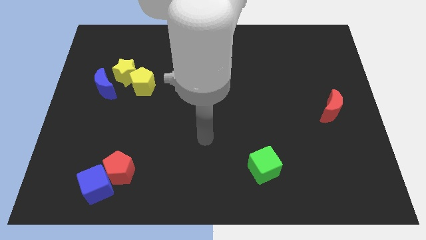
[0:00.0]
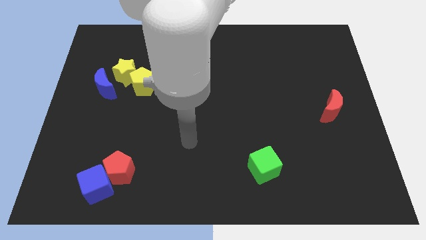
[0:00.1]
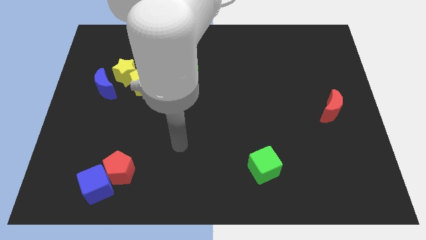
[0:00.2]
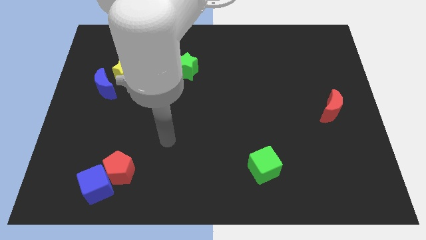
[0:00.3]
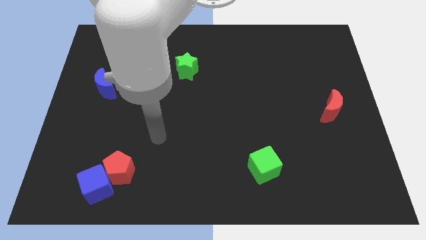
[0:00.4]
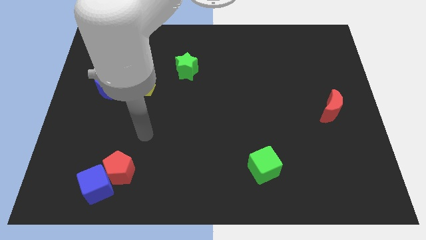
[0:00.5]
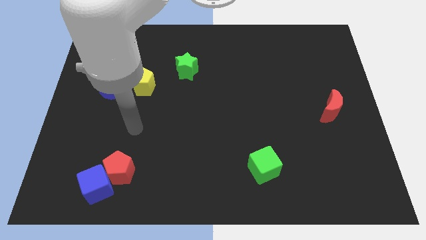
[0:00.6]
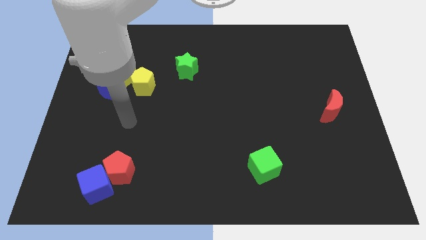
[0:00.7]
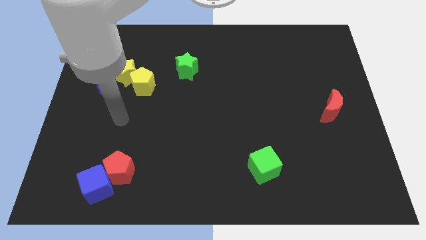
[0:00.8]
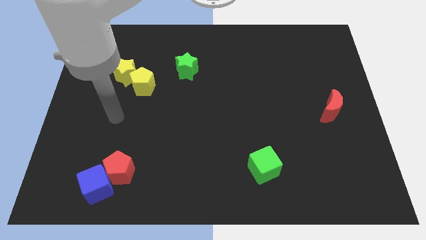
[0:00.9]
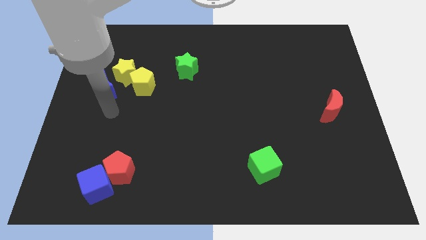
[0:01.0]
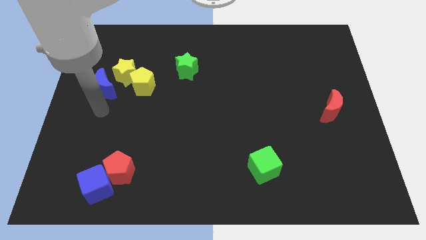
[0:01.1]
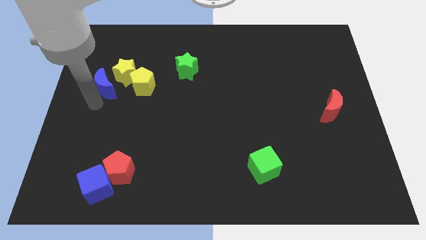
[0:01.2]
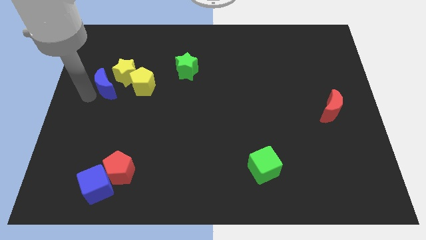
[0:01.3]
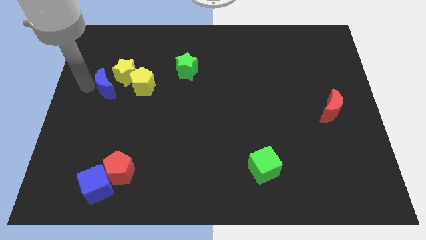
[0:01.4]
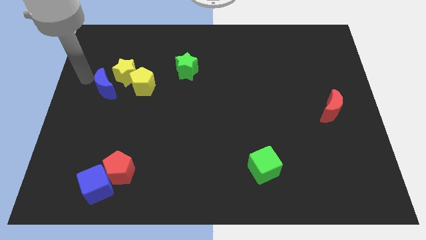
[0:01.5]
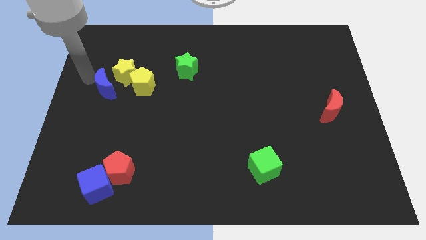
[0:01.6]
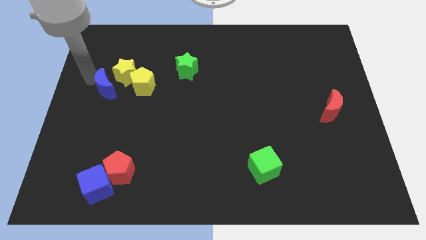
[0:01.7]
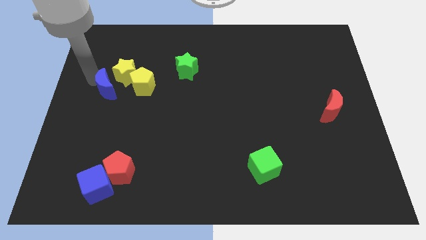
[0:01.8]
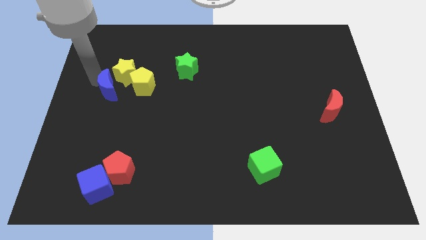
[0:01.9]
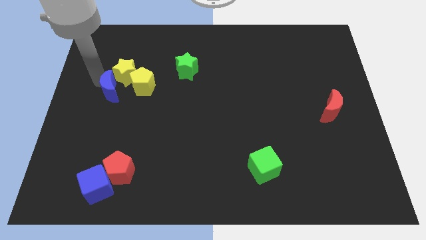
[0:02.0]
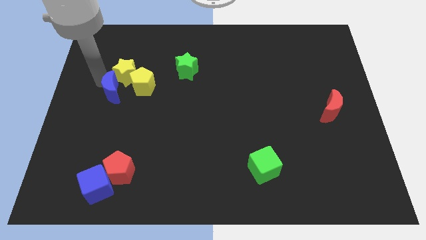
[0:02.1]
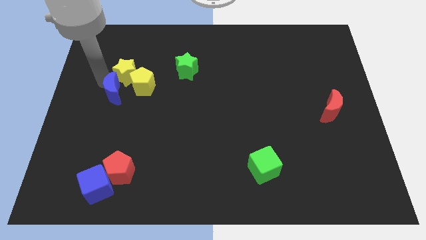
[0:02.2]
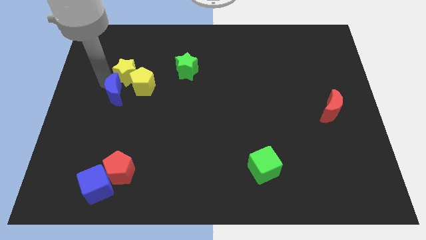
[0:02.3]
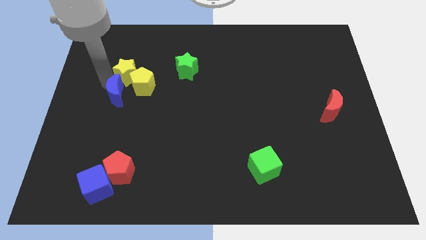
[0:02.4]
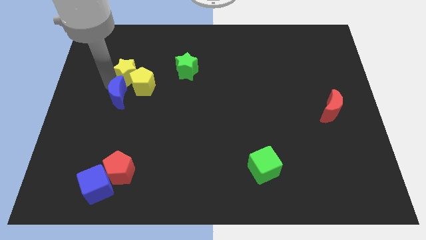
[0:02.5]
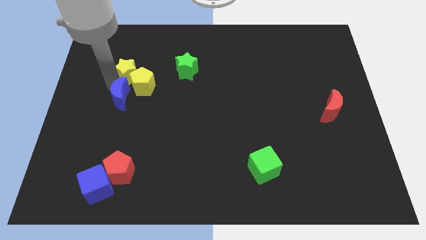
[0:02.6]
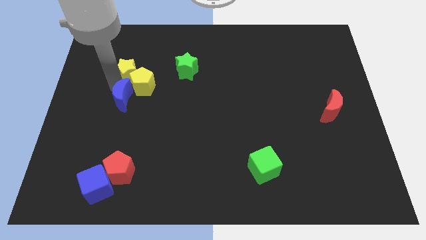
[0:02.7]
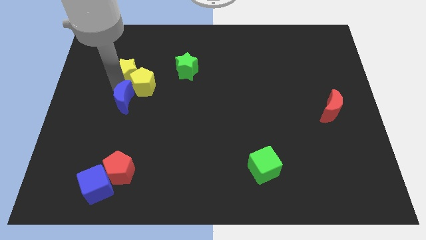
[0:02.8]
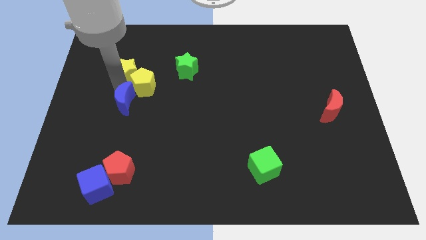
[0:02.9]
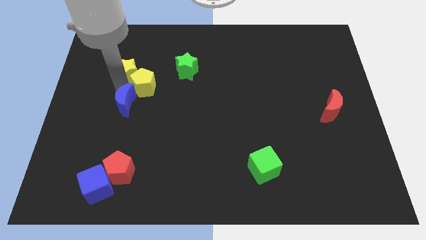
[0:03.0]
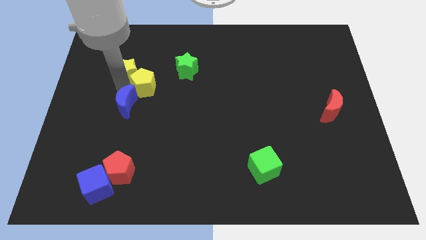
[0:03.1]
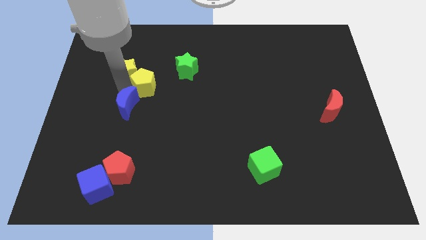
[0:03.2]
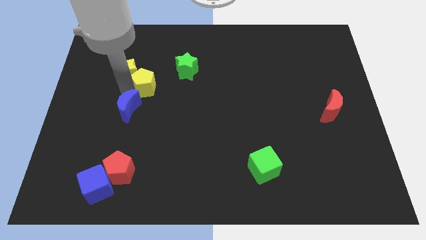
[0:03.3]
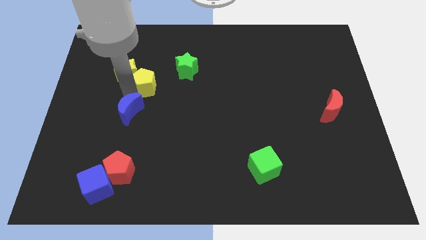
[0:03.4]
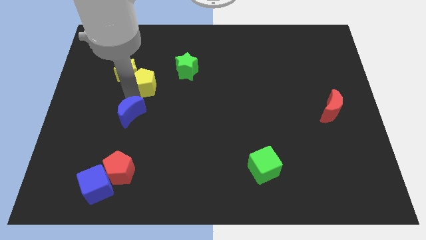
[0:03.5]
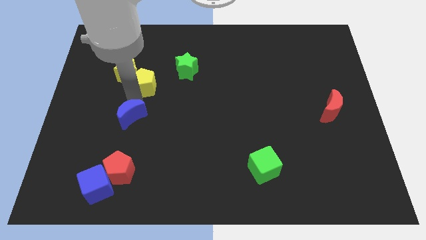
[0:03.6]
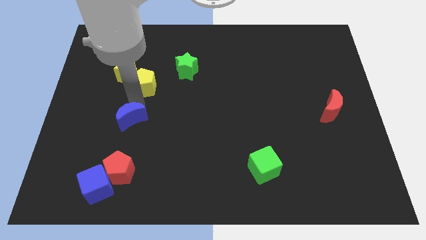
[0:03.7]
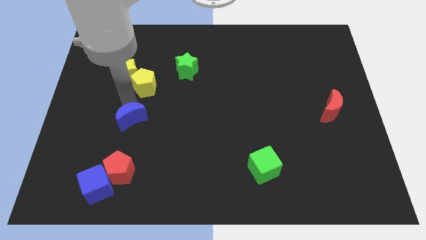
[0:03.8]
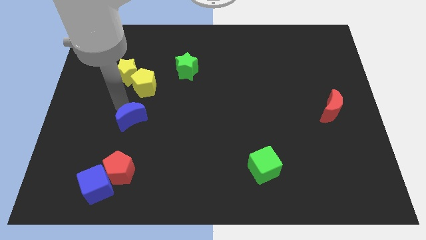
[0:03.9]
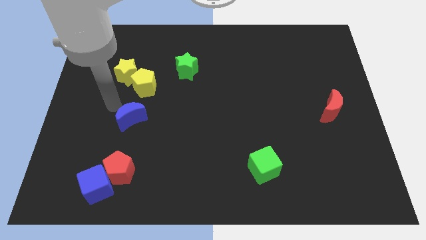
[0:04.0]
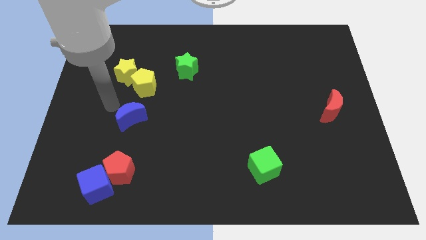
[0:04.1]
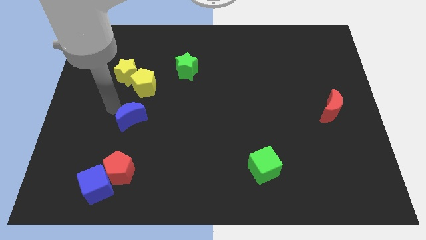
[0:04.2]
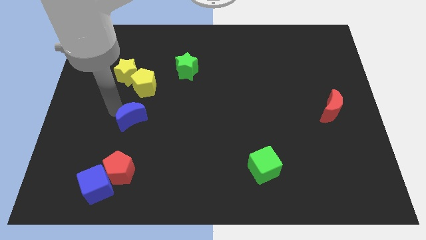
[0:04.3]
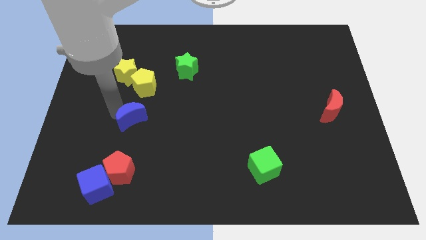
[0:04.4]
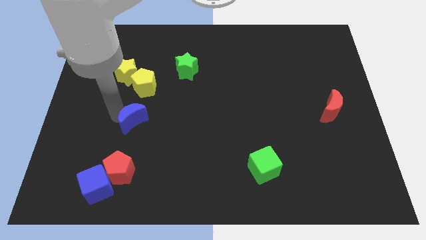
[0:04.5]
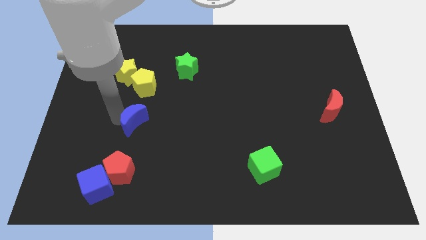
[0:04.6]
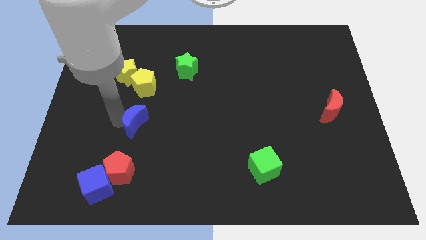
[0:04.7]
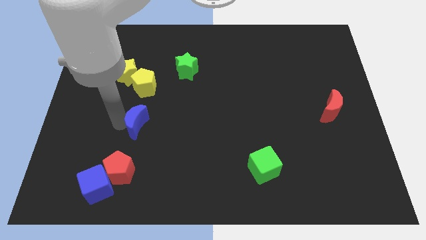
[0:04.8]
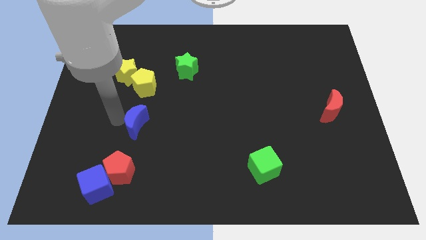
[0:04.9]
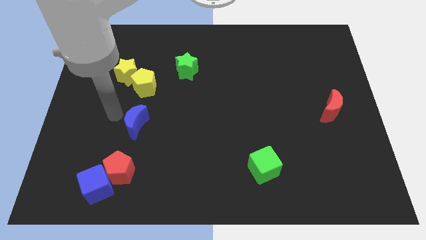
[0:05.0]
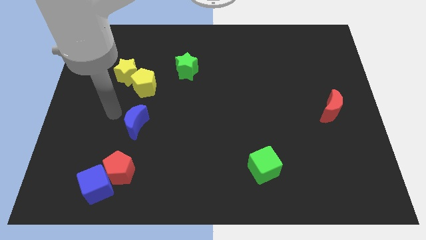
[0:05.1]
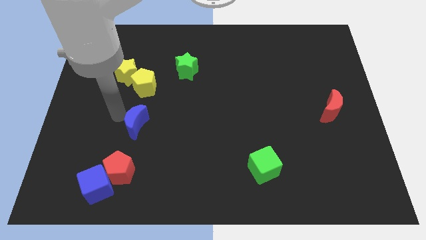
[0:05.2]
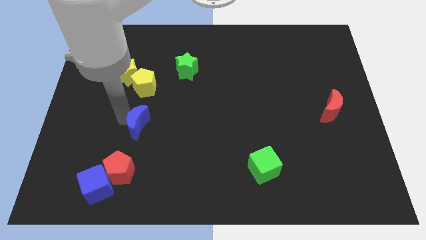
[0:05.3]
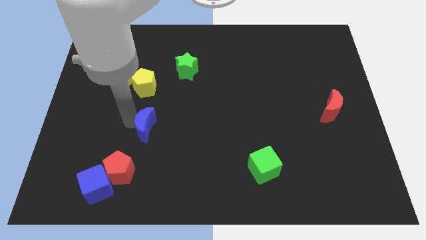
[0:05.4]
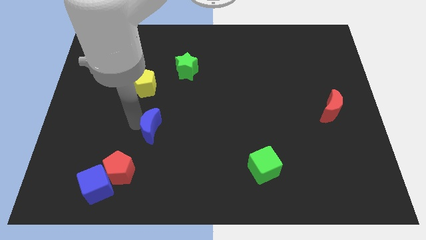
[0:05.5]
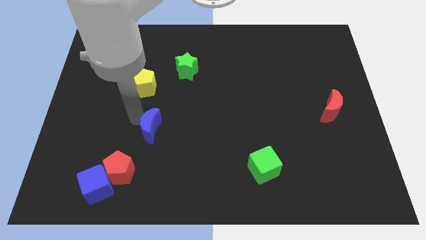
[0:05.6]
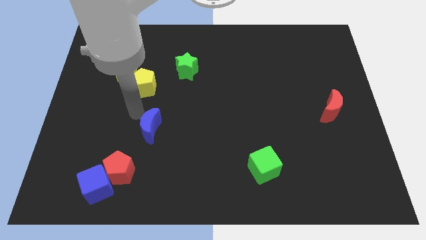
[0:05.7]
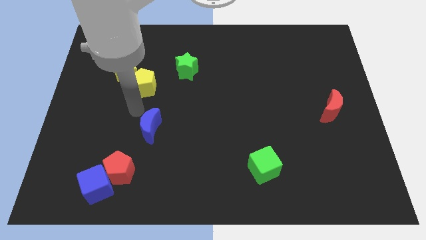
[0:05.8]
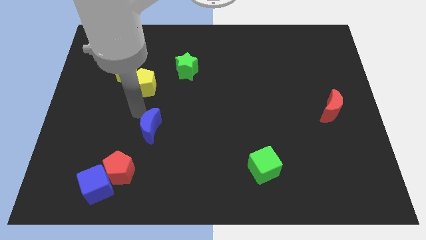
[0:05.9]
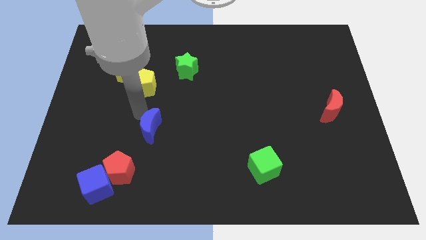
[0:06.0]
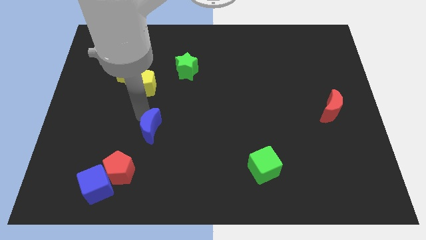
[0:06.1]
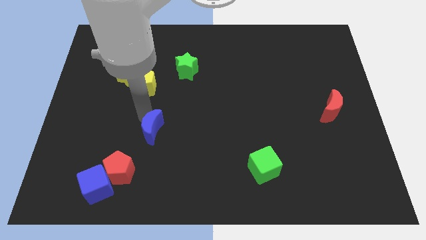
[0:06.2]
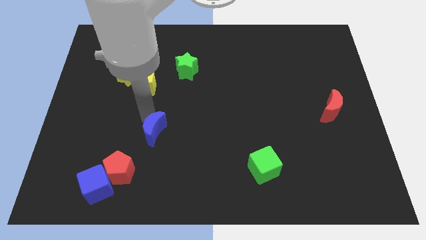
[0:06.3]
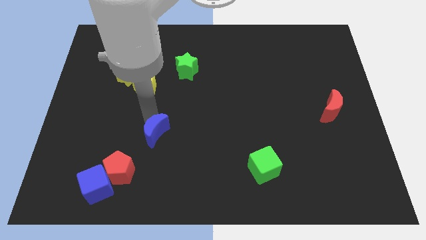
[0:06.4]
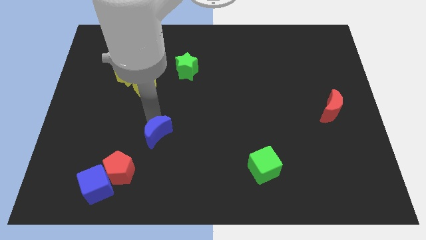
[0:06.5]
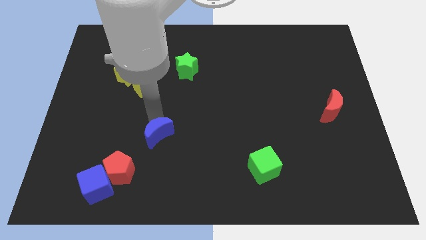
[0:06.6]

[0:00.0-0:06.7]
push the blue moon down and then right

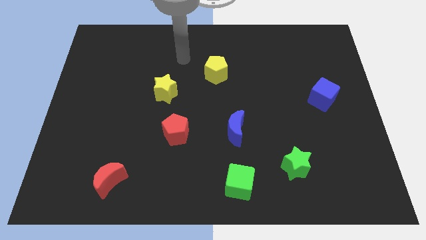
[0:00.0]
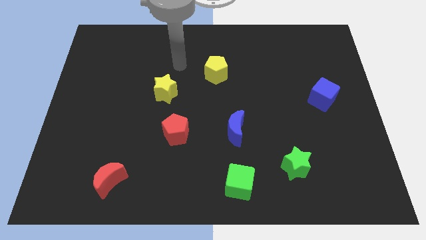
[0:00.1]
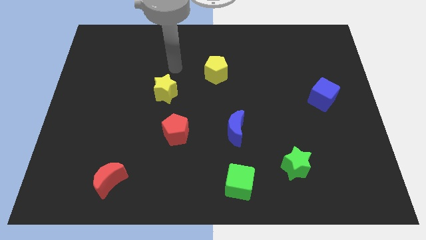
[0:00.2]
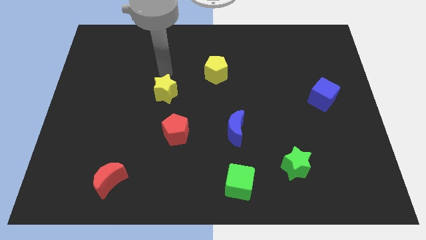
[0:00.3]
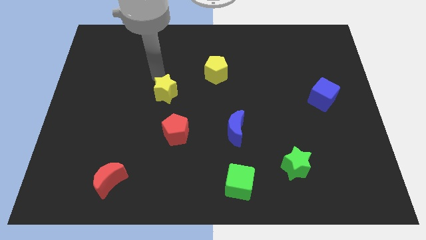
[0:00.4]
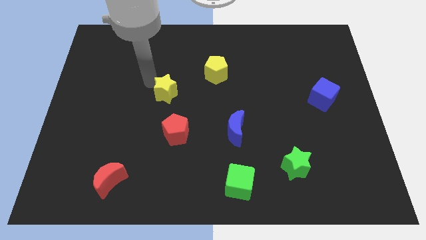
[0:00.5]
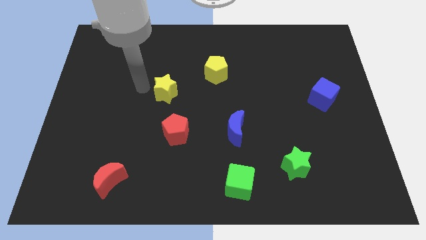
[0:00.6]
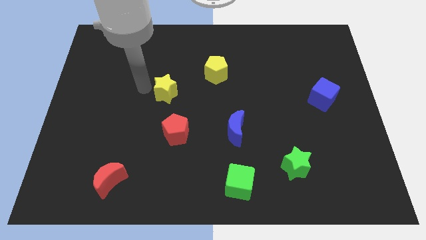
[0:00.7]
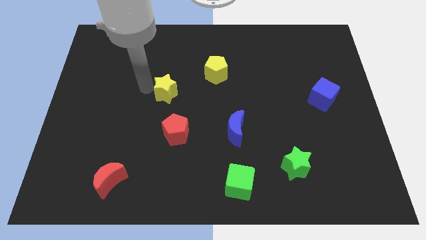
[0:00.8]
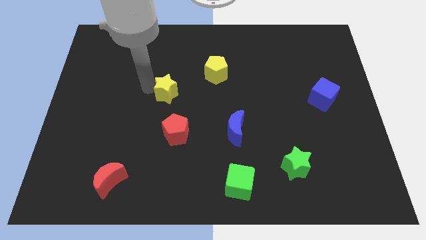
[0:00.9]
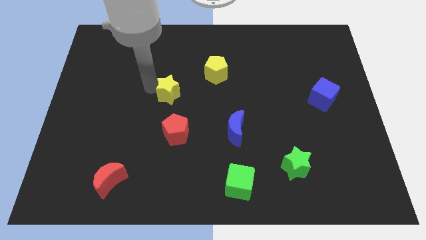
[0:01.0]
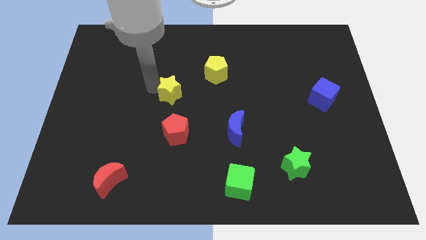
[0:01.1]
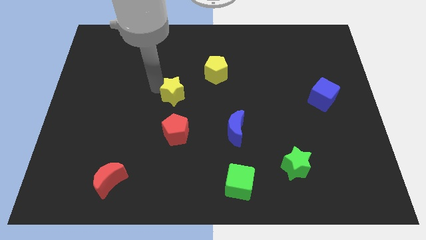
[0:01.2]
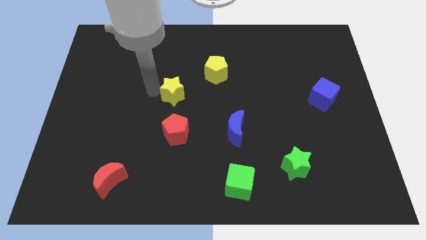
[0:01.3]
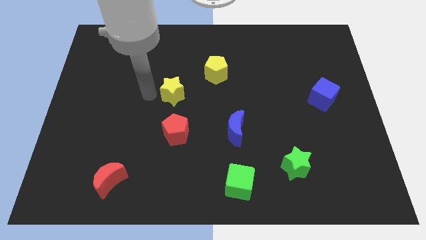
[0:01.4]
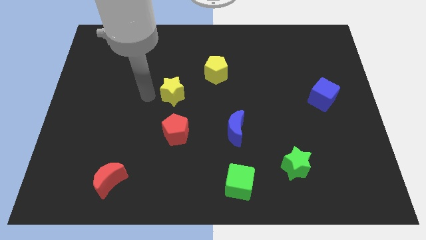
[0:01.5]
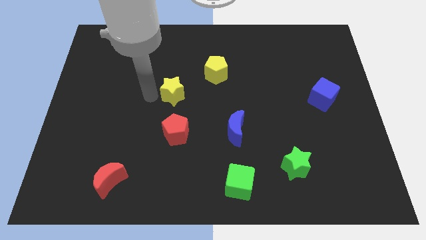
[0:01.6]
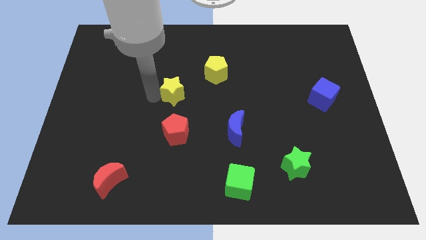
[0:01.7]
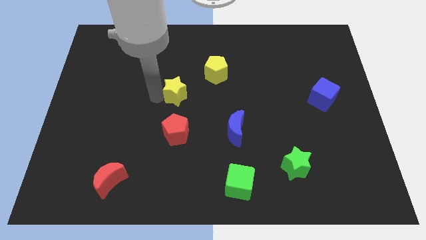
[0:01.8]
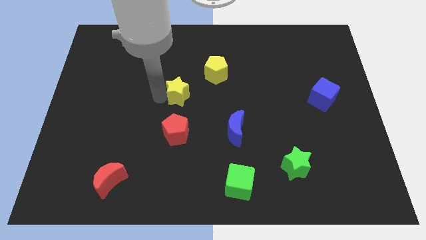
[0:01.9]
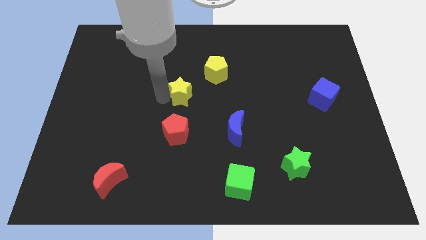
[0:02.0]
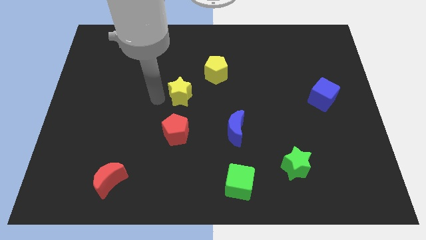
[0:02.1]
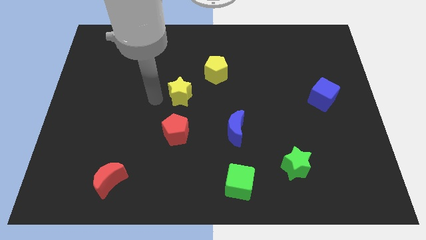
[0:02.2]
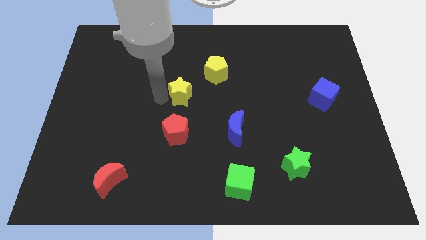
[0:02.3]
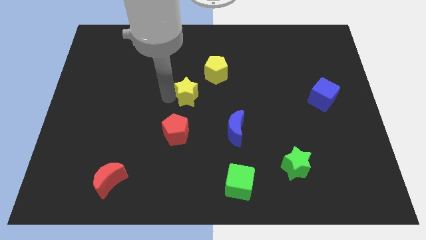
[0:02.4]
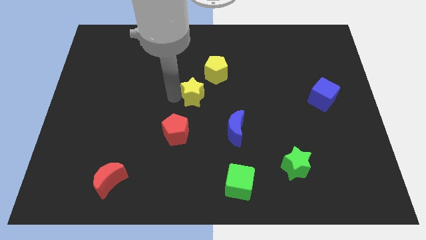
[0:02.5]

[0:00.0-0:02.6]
move the yellow star to the right a little
